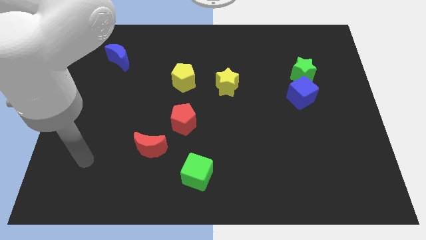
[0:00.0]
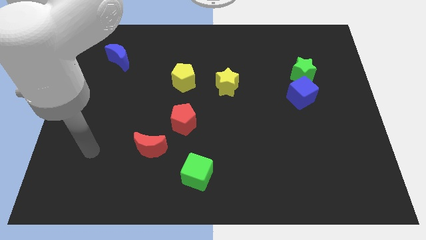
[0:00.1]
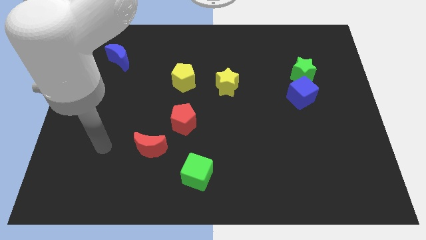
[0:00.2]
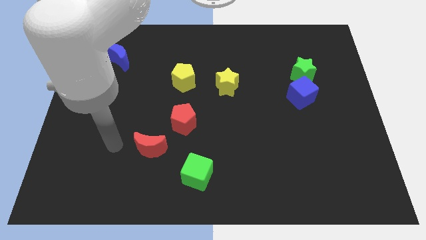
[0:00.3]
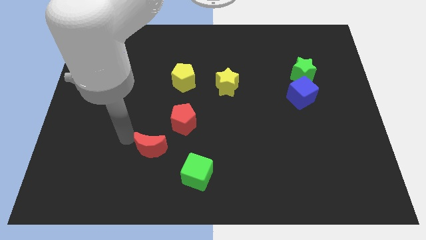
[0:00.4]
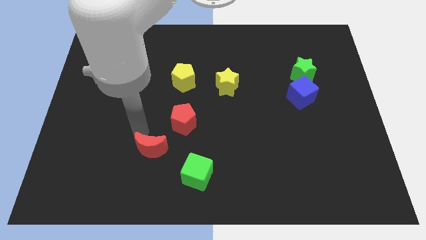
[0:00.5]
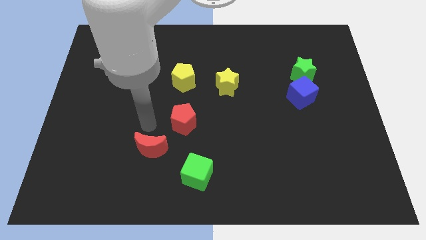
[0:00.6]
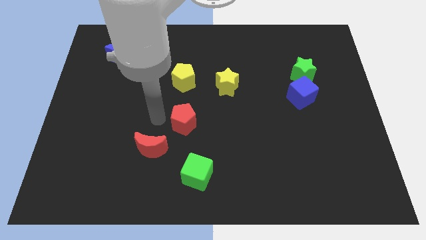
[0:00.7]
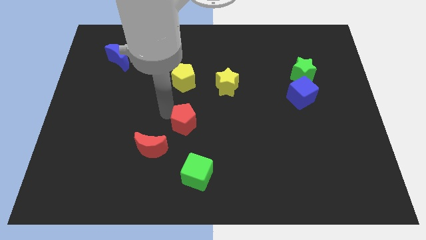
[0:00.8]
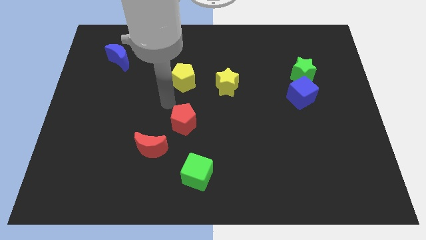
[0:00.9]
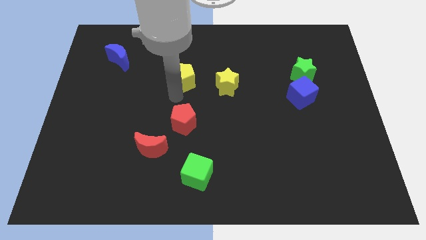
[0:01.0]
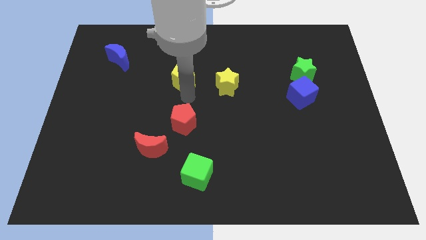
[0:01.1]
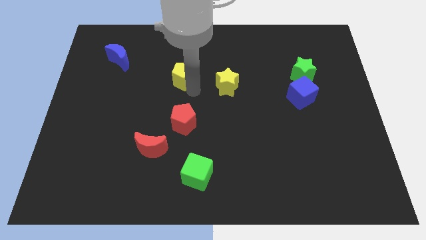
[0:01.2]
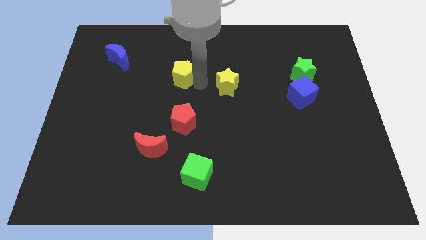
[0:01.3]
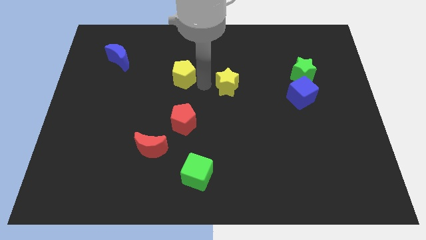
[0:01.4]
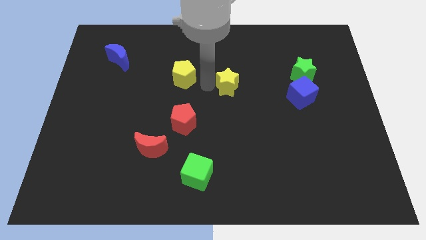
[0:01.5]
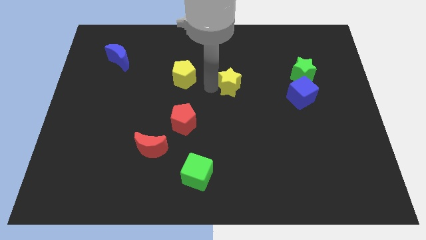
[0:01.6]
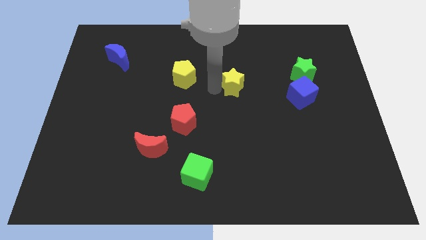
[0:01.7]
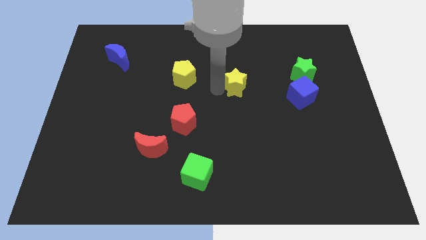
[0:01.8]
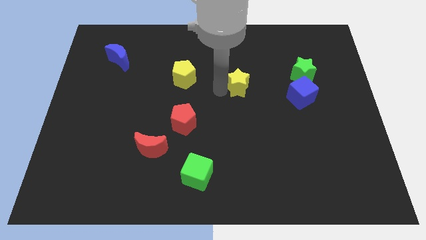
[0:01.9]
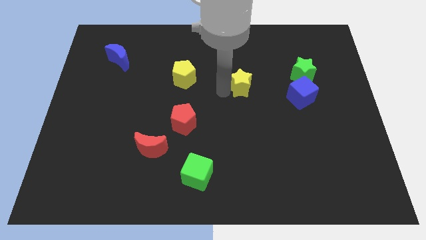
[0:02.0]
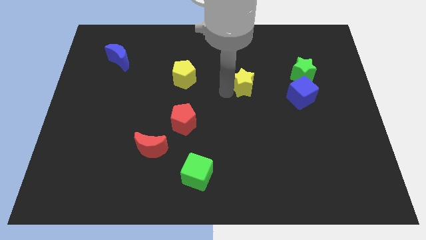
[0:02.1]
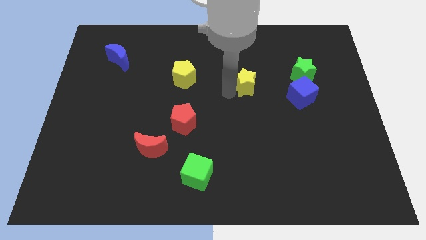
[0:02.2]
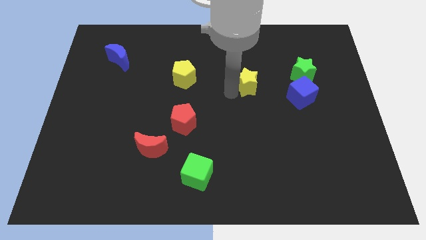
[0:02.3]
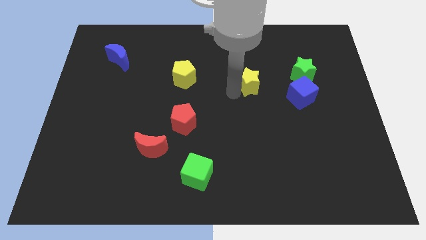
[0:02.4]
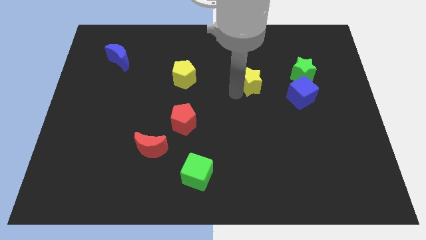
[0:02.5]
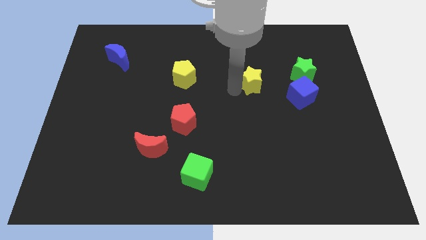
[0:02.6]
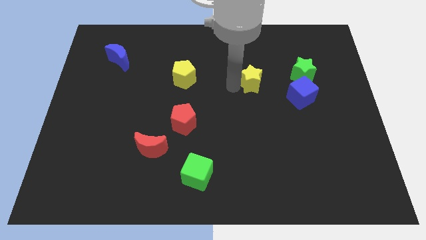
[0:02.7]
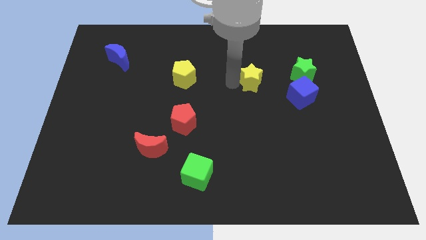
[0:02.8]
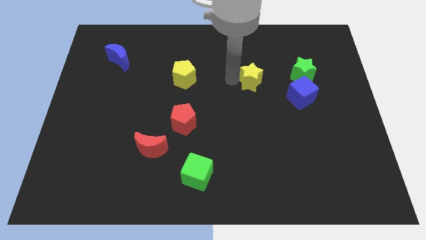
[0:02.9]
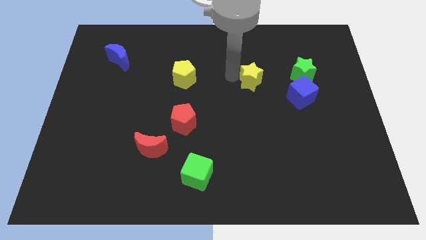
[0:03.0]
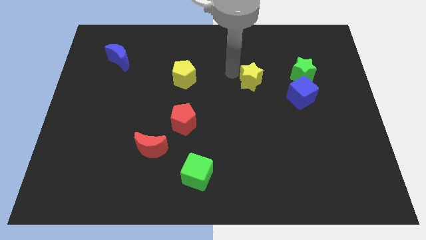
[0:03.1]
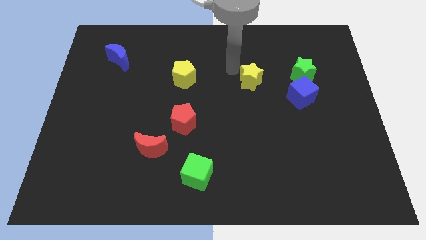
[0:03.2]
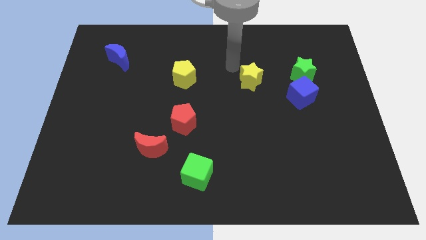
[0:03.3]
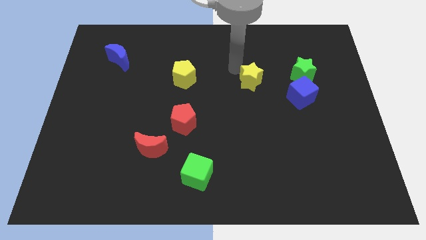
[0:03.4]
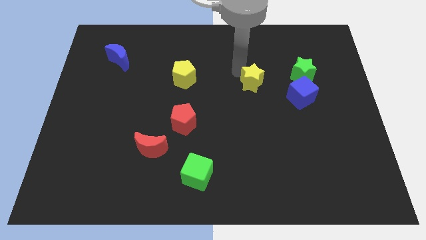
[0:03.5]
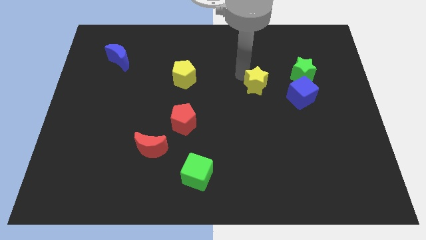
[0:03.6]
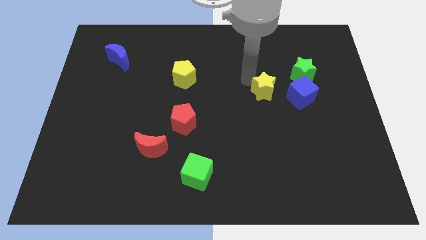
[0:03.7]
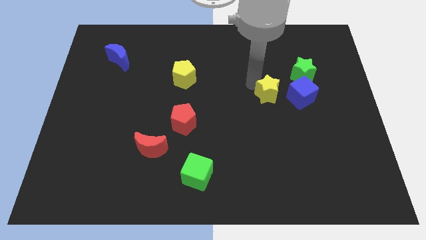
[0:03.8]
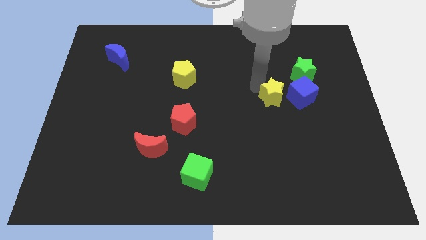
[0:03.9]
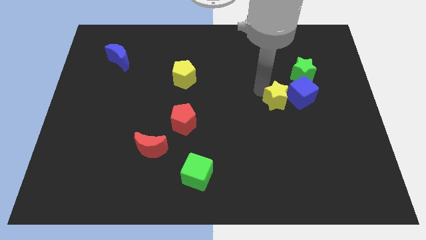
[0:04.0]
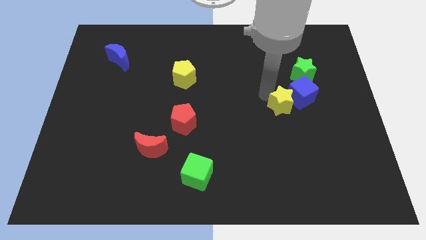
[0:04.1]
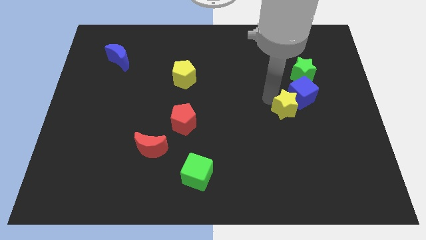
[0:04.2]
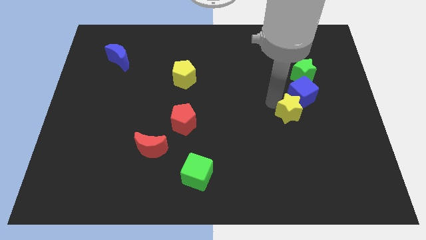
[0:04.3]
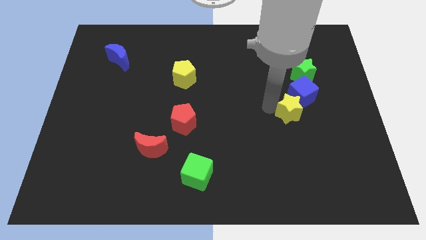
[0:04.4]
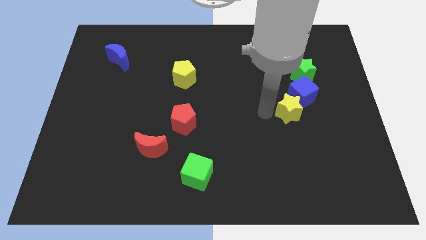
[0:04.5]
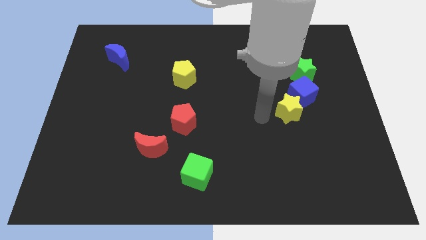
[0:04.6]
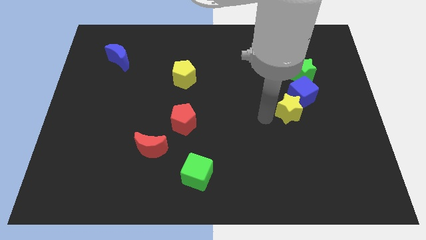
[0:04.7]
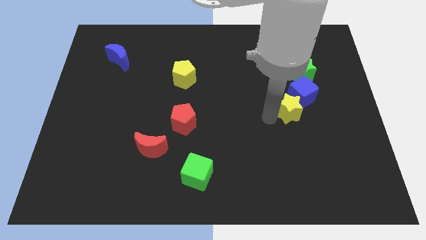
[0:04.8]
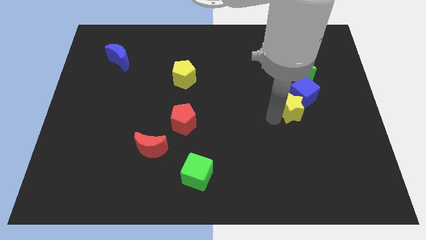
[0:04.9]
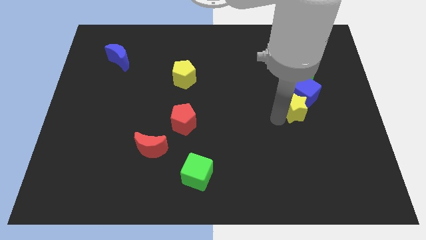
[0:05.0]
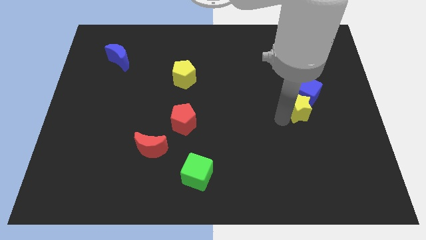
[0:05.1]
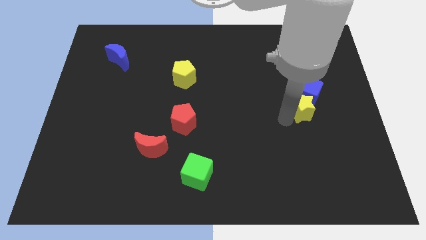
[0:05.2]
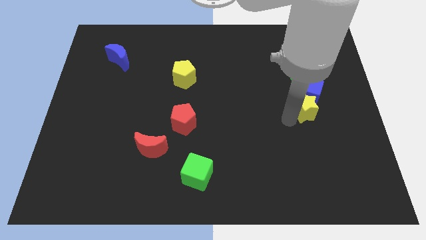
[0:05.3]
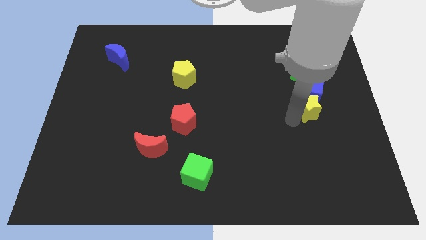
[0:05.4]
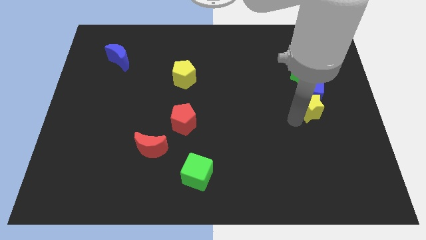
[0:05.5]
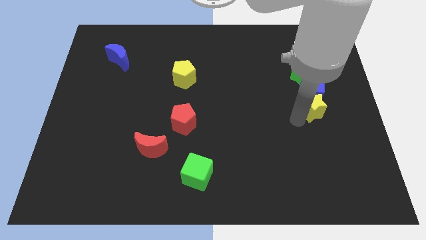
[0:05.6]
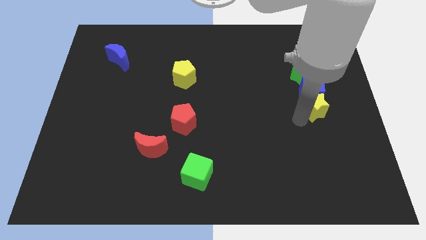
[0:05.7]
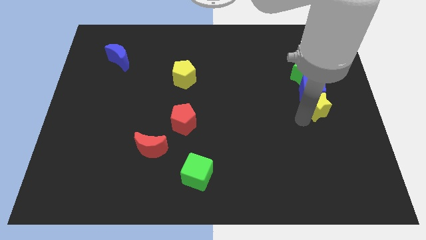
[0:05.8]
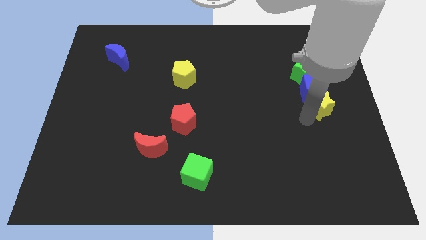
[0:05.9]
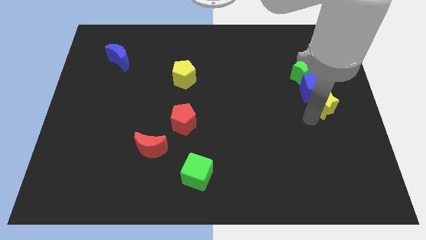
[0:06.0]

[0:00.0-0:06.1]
push the yellow star to the right side
